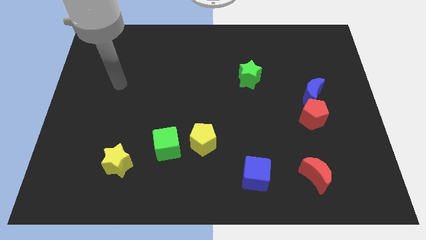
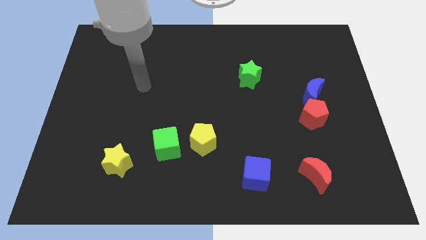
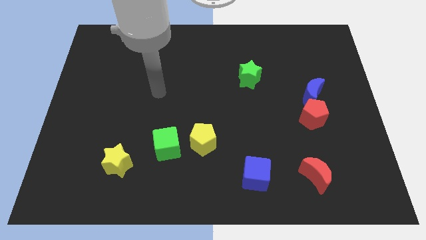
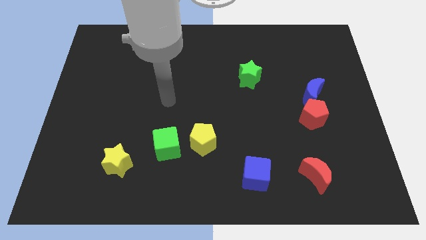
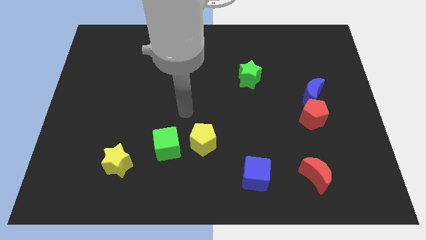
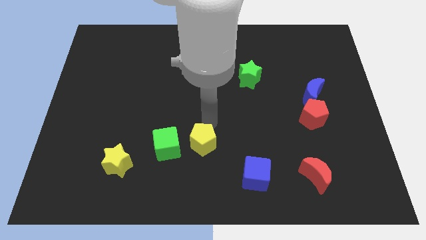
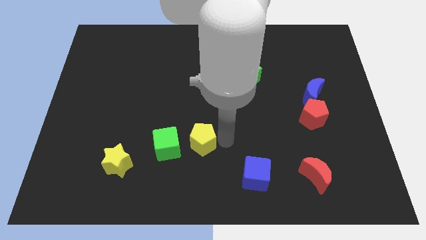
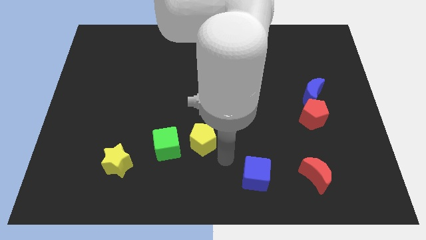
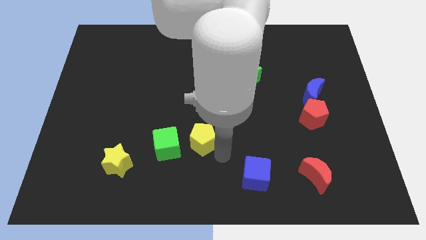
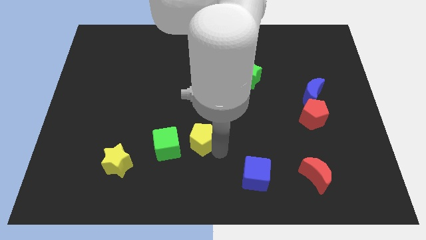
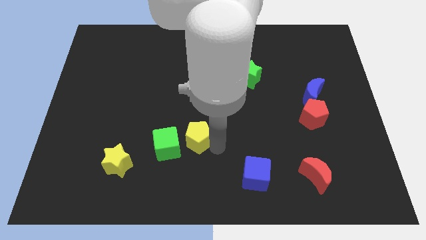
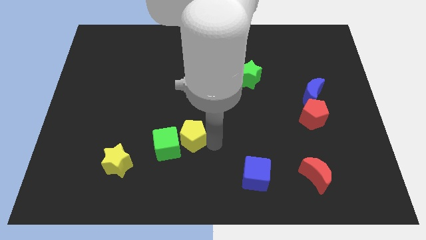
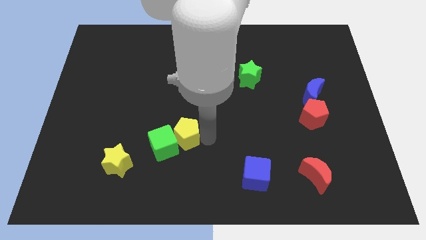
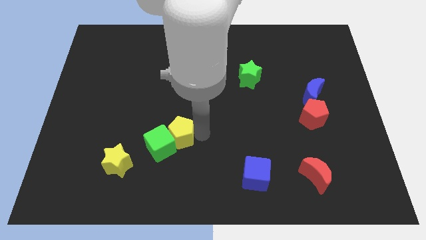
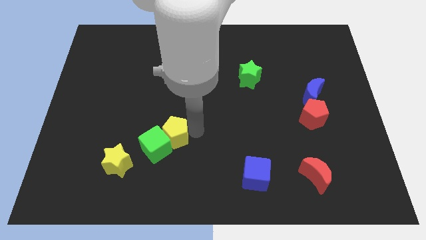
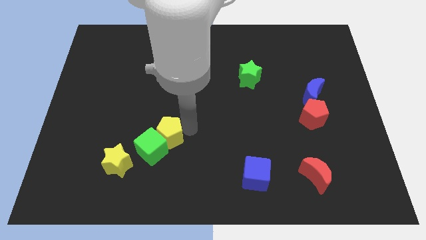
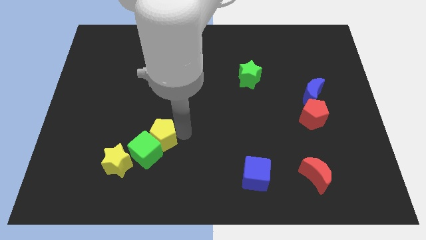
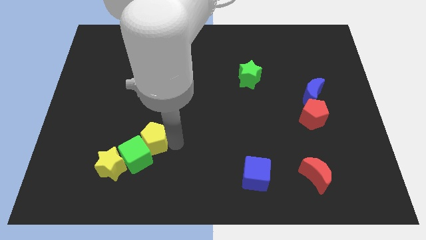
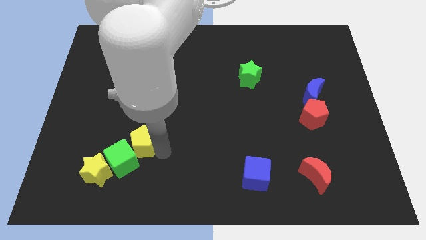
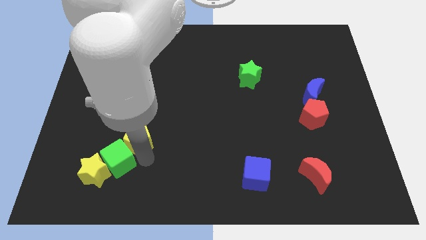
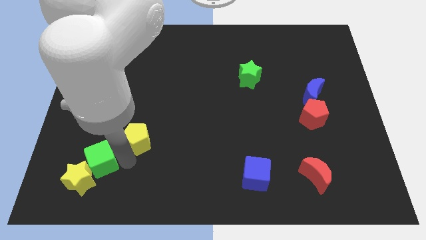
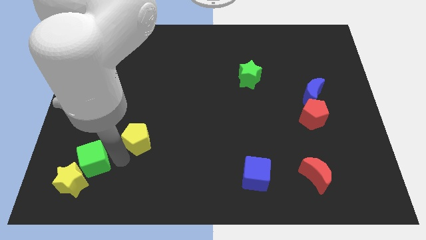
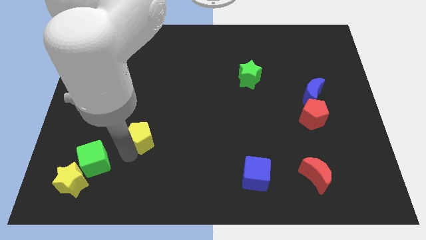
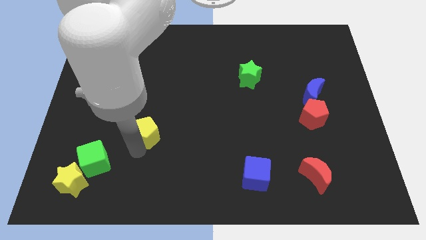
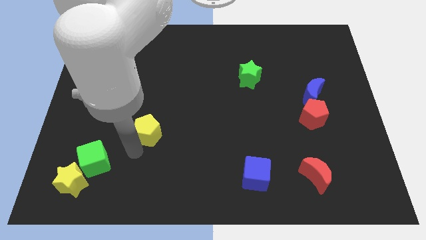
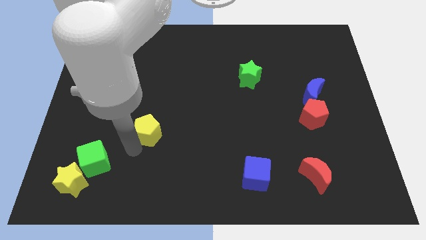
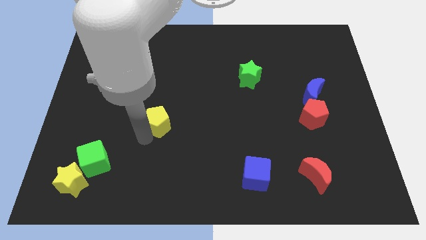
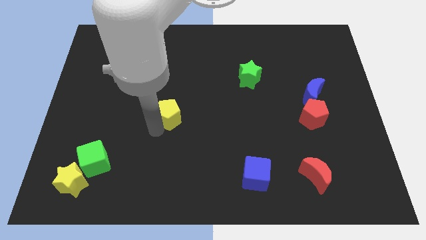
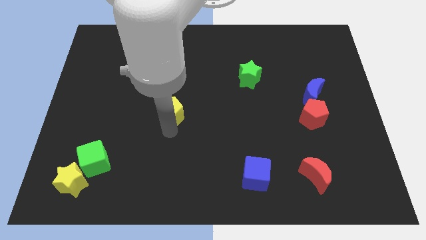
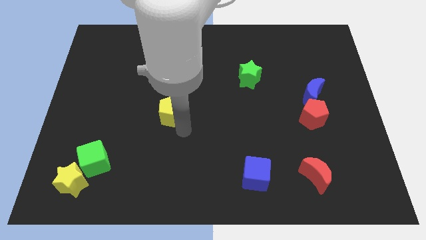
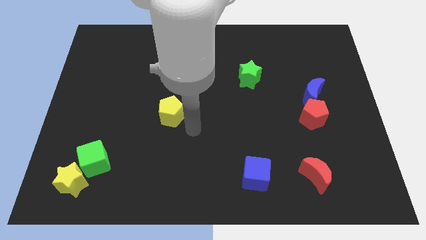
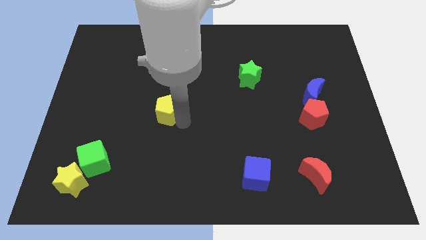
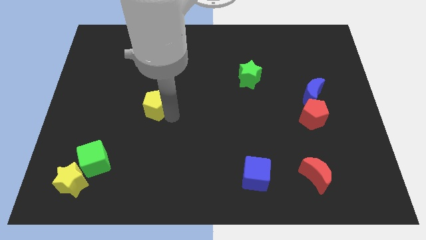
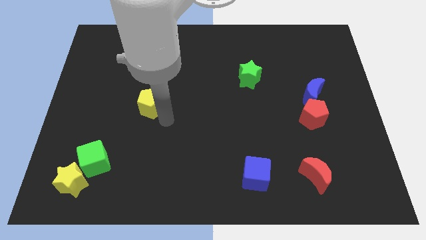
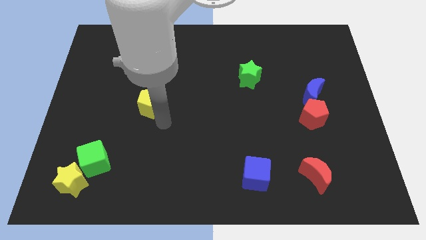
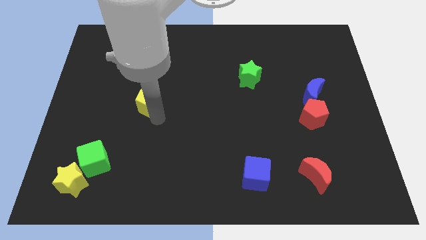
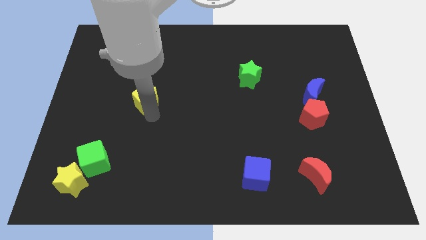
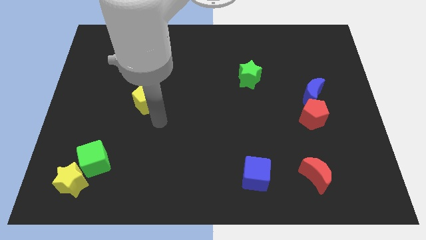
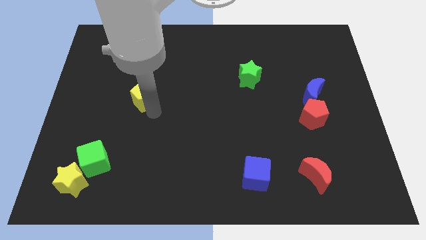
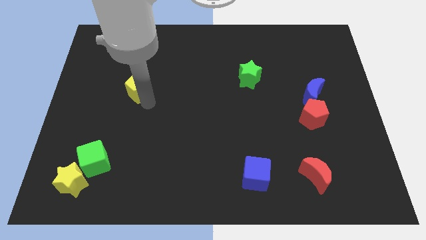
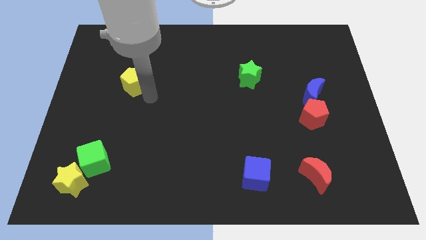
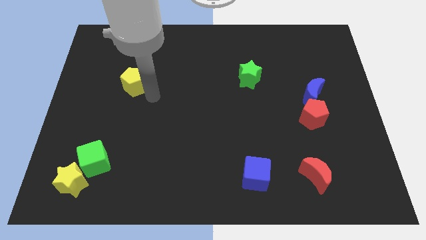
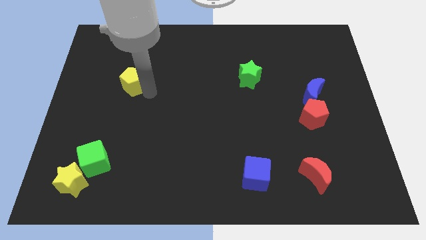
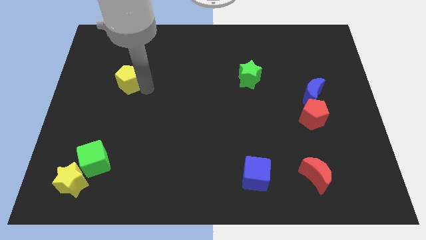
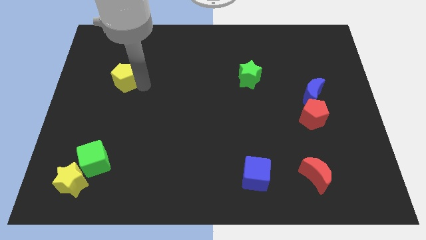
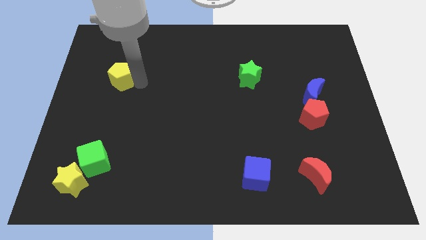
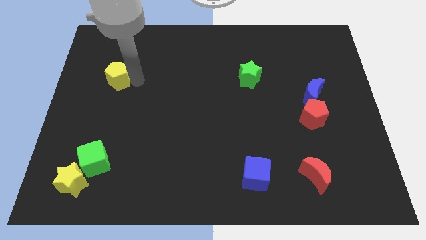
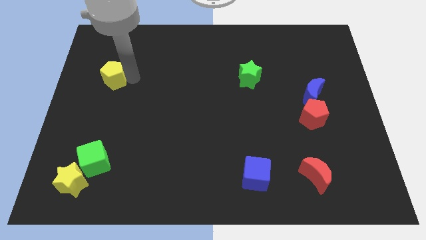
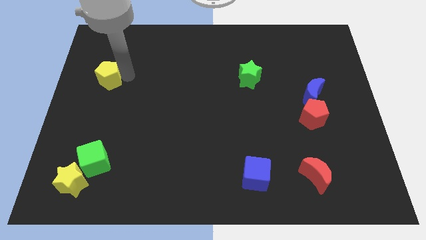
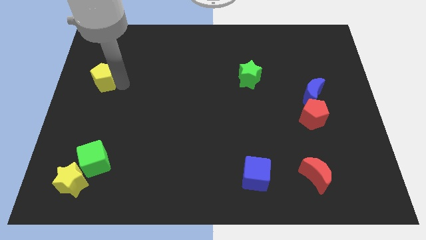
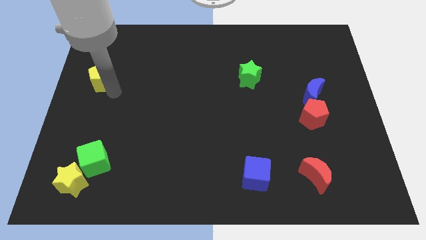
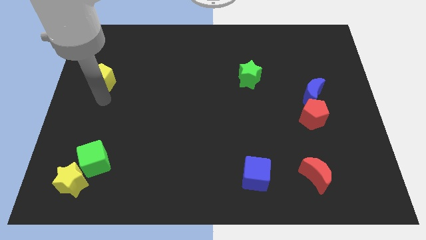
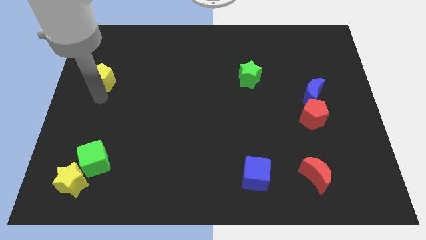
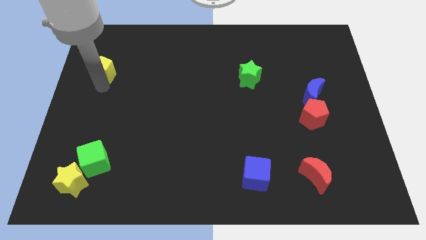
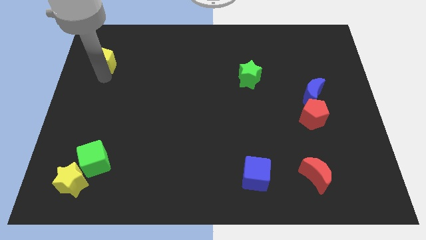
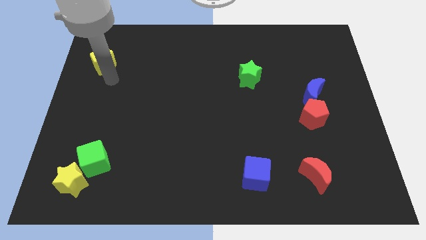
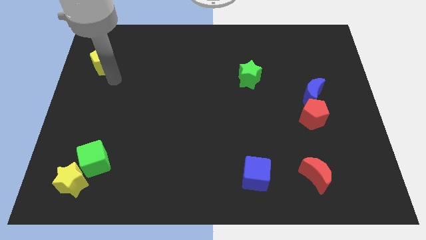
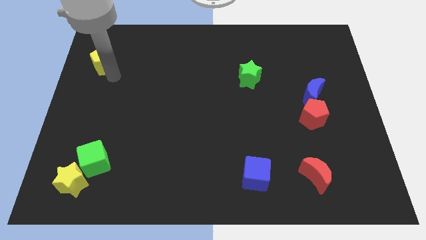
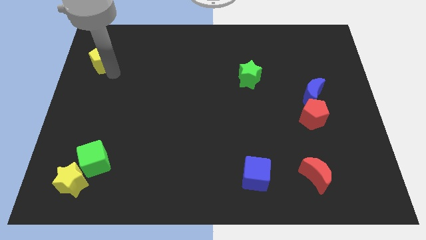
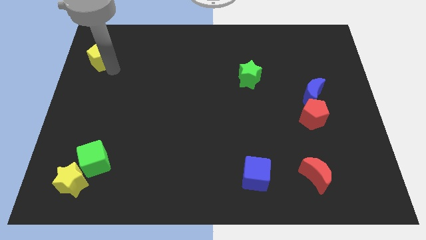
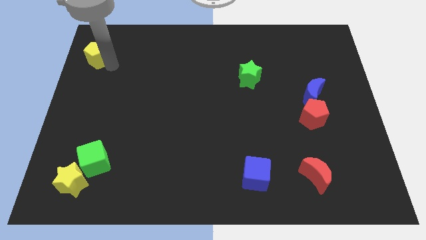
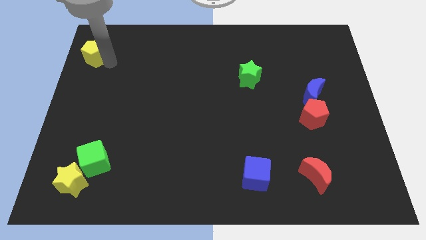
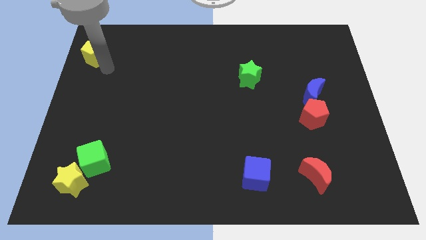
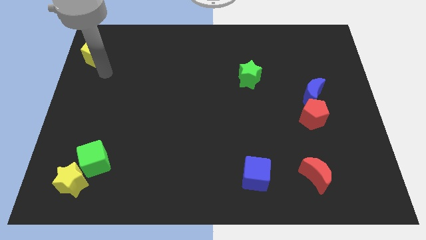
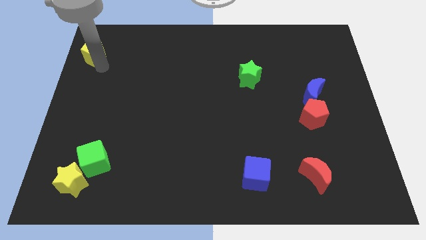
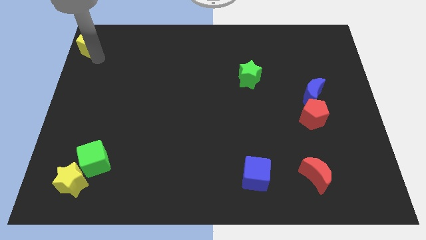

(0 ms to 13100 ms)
push the yellow pentagon to the upper left corner
